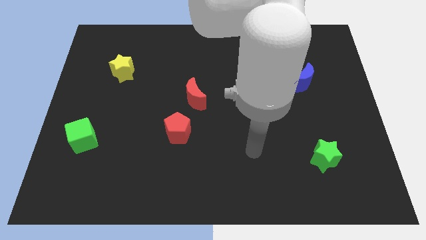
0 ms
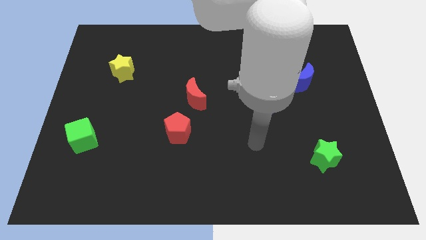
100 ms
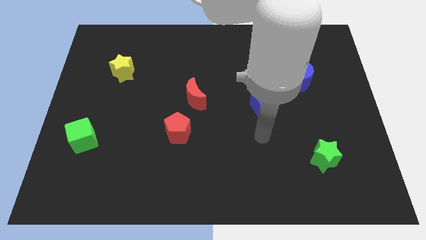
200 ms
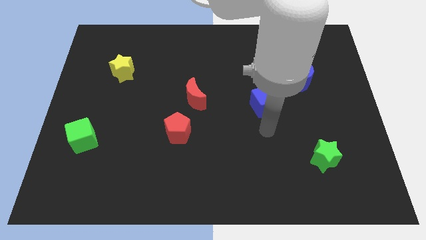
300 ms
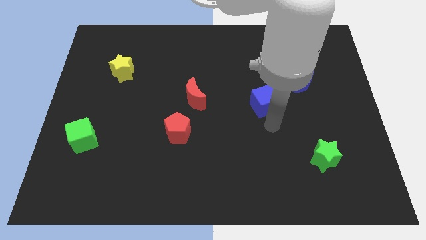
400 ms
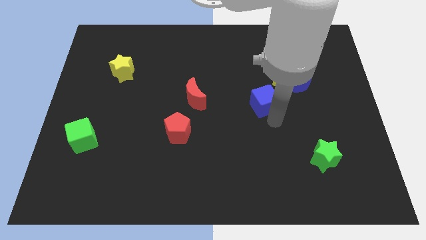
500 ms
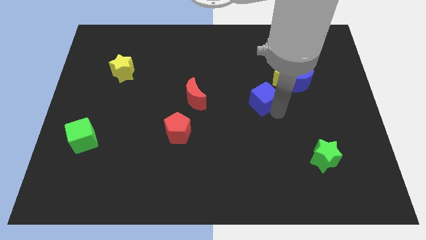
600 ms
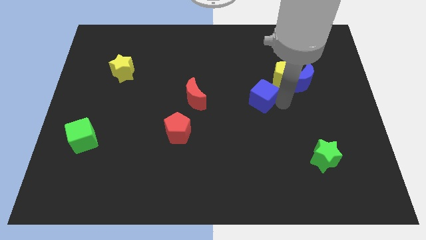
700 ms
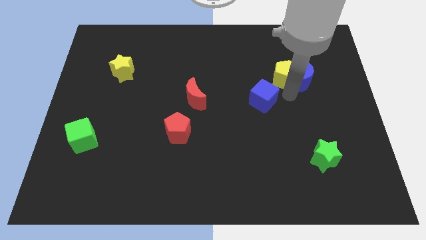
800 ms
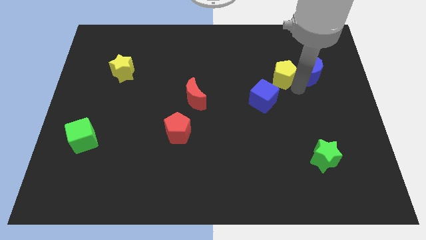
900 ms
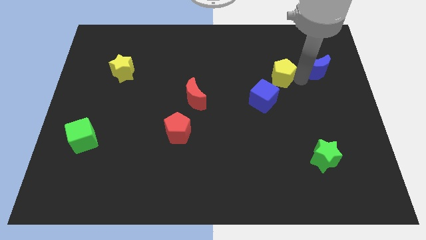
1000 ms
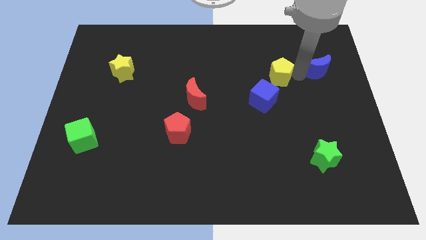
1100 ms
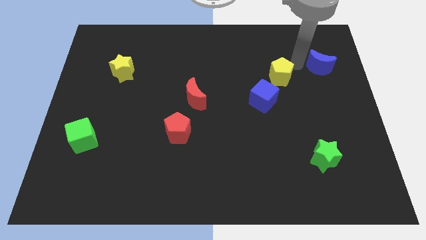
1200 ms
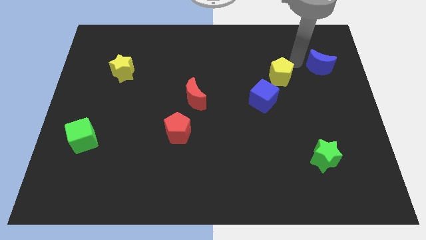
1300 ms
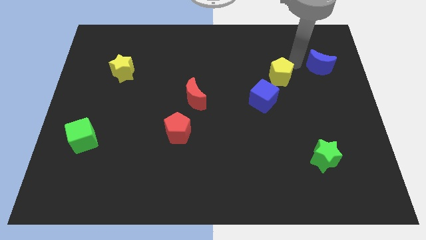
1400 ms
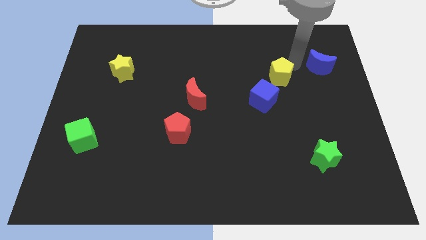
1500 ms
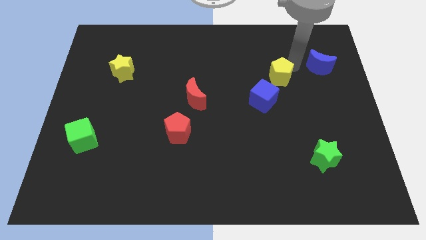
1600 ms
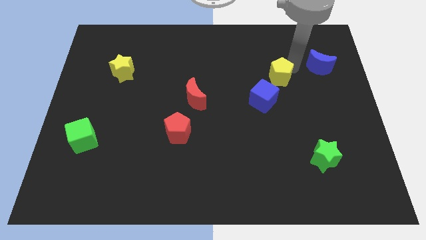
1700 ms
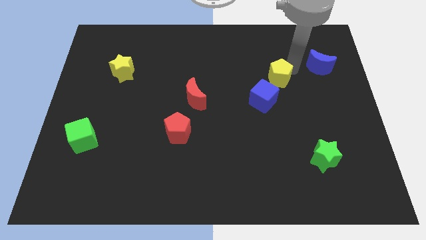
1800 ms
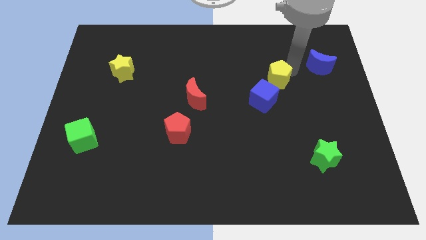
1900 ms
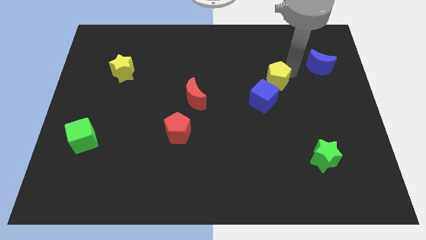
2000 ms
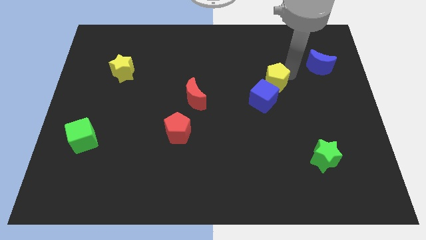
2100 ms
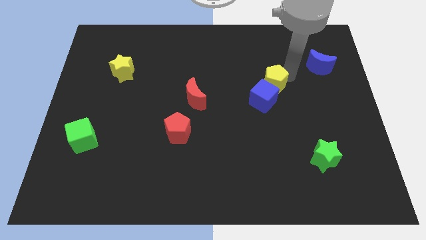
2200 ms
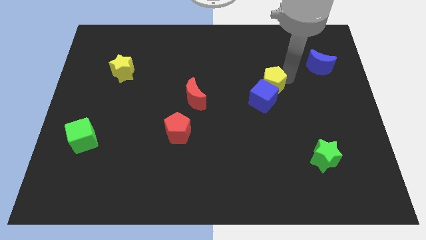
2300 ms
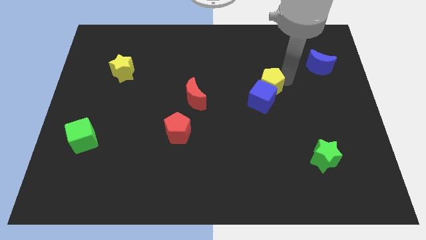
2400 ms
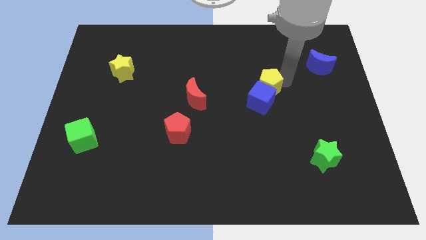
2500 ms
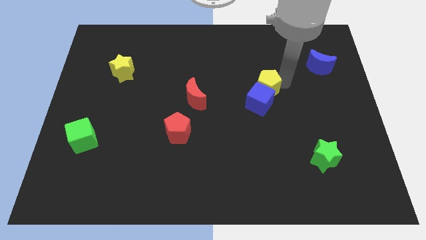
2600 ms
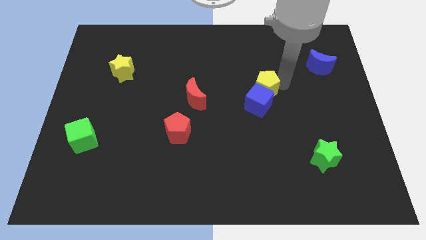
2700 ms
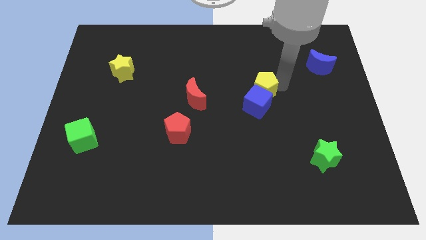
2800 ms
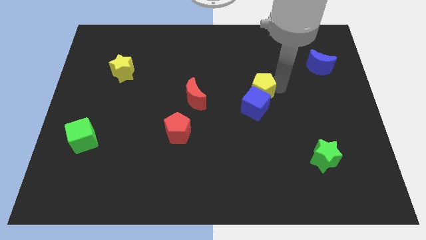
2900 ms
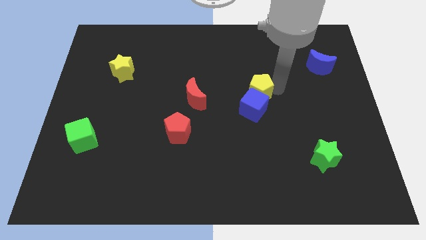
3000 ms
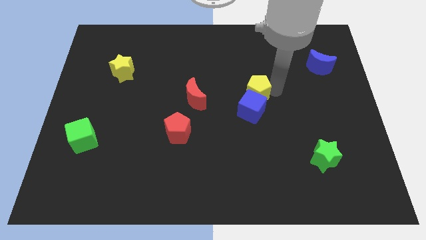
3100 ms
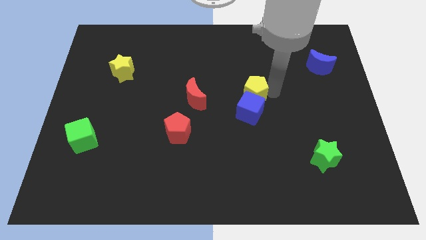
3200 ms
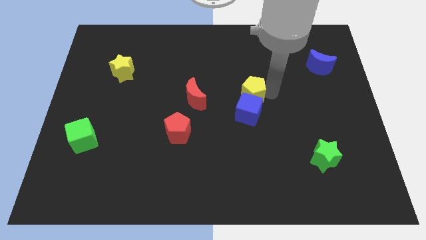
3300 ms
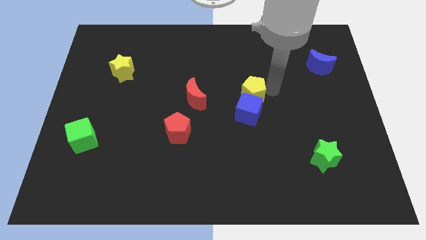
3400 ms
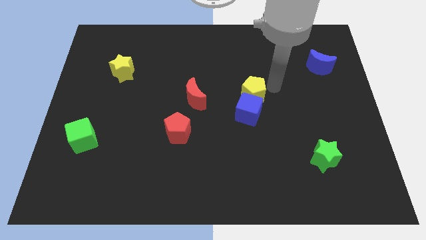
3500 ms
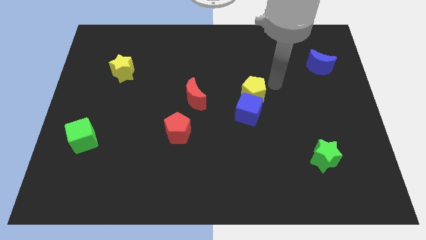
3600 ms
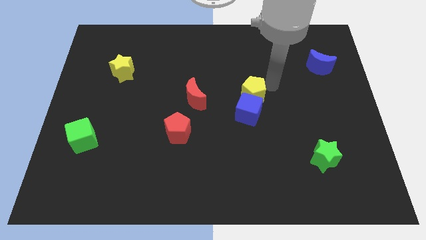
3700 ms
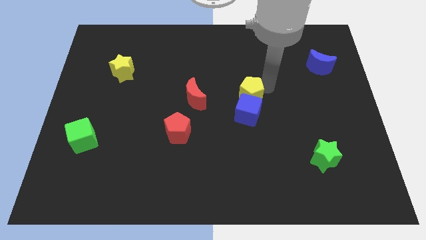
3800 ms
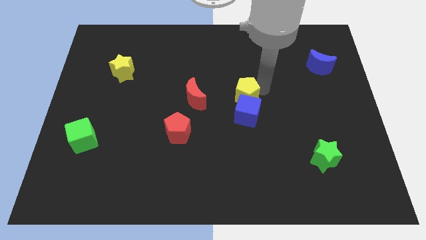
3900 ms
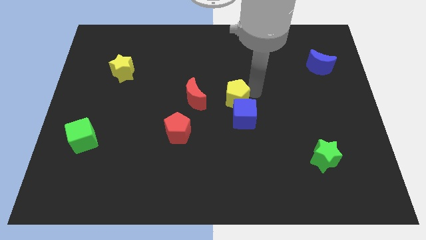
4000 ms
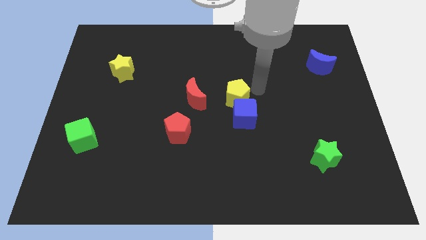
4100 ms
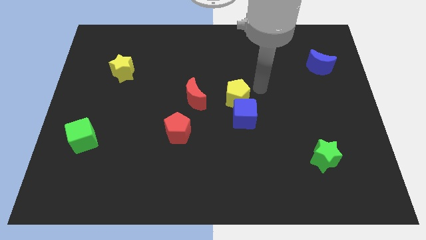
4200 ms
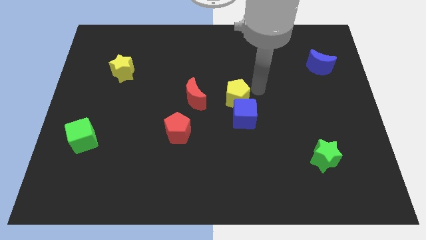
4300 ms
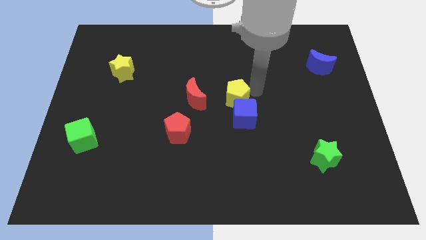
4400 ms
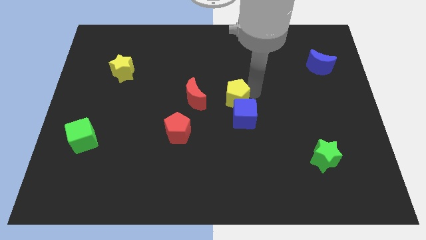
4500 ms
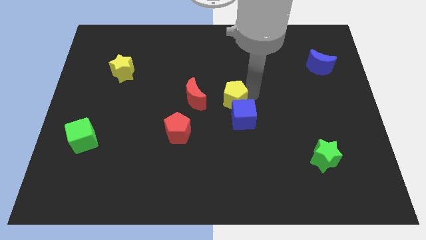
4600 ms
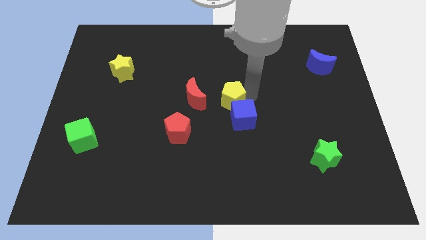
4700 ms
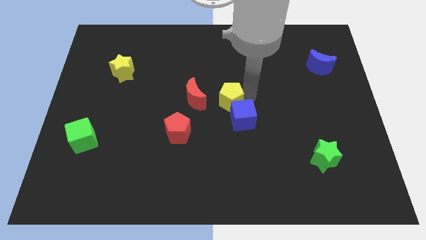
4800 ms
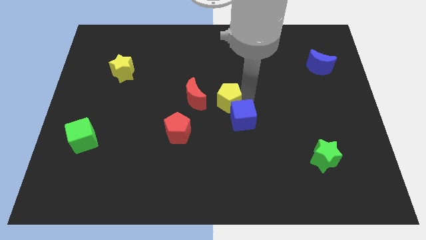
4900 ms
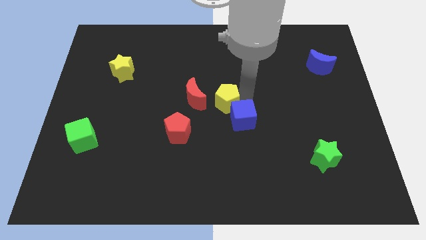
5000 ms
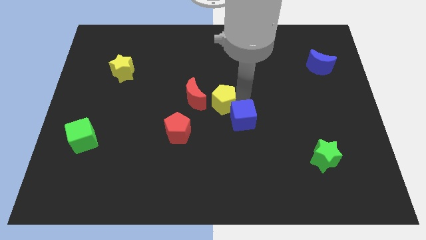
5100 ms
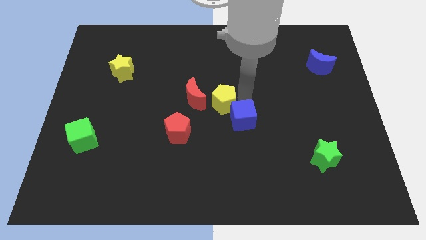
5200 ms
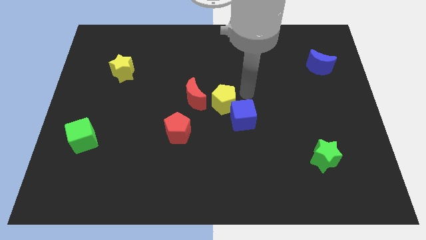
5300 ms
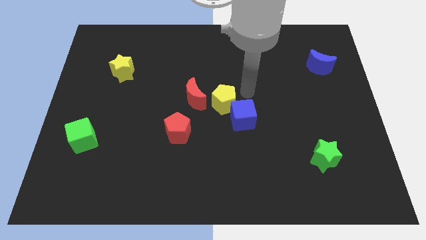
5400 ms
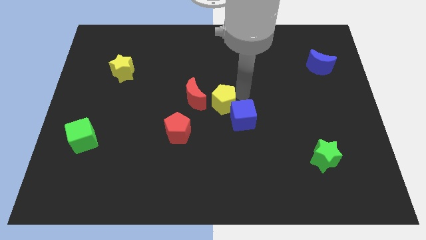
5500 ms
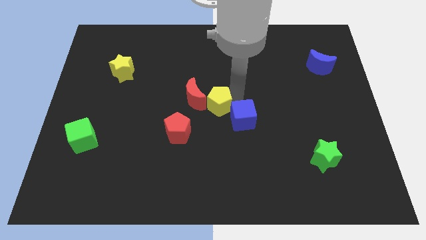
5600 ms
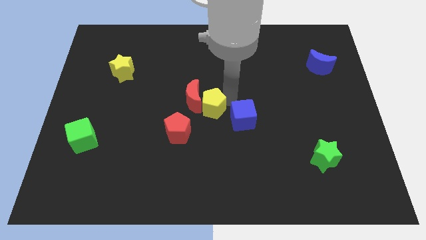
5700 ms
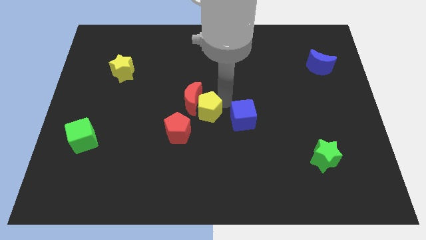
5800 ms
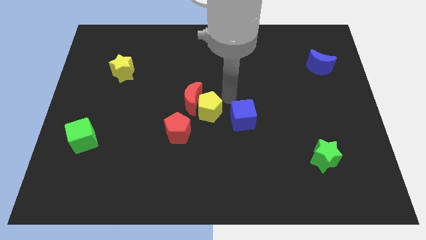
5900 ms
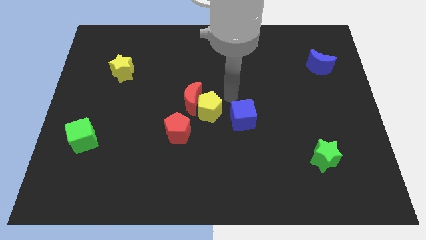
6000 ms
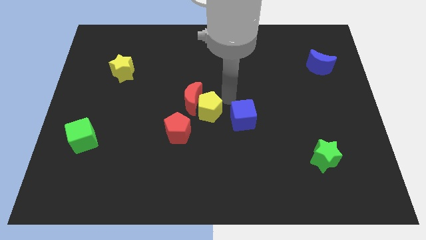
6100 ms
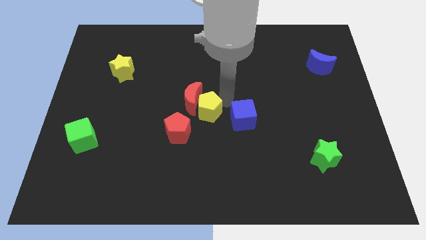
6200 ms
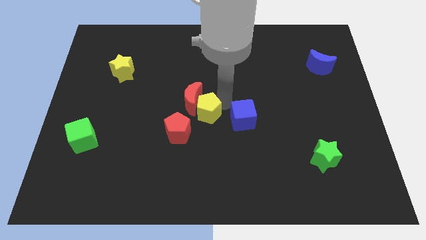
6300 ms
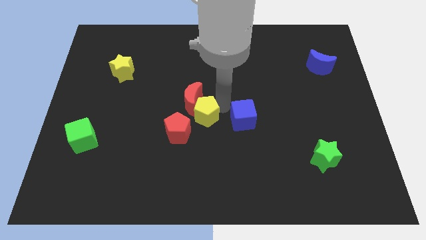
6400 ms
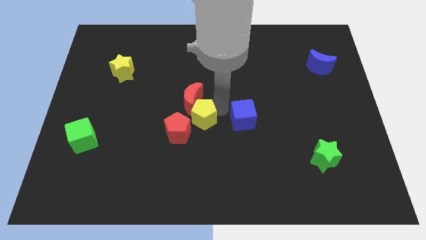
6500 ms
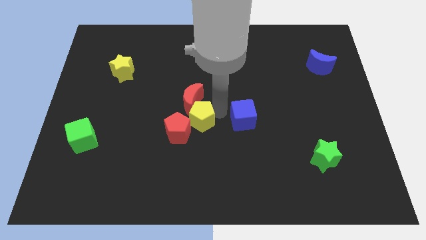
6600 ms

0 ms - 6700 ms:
put the yellow pentagon next to the red pentagon
